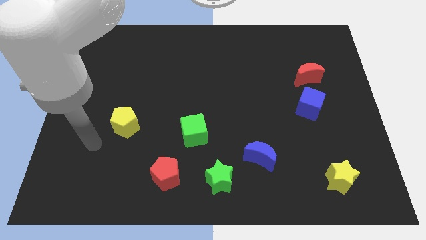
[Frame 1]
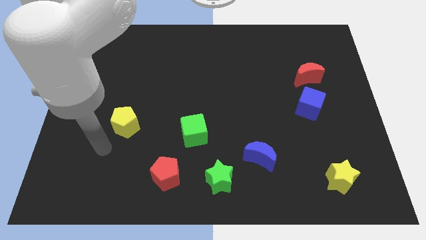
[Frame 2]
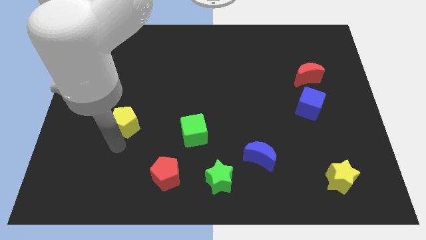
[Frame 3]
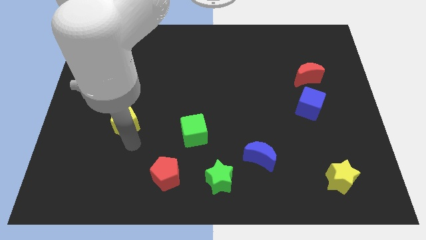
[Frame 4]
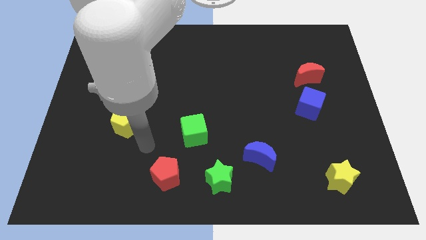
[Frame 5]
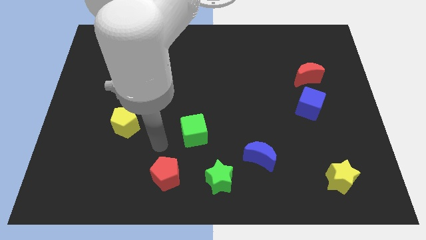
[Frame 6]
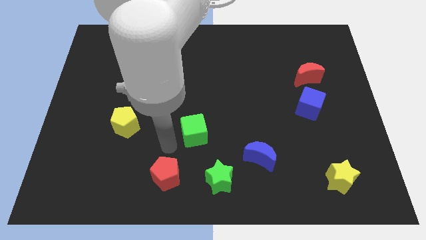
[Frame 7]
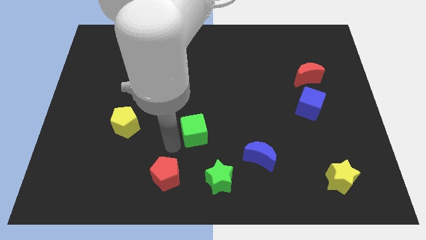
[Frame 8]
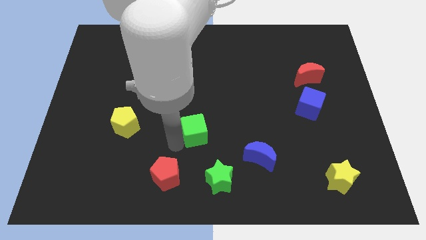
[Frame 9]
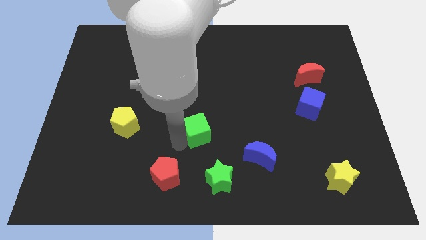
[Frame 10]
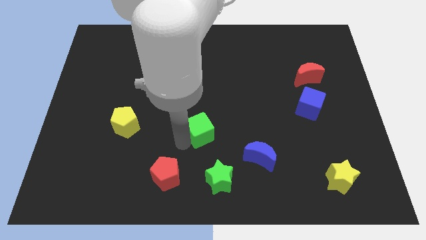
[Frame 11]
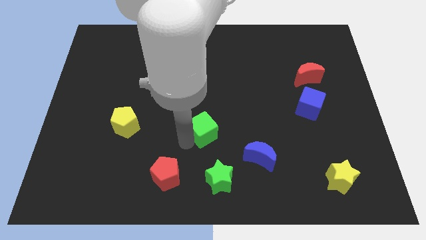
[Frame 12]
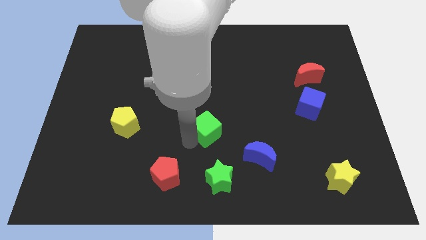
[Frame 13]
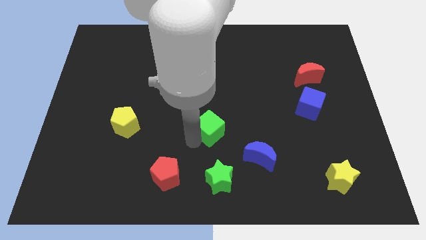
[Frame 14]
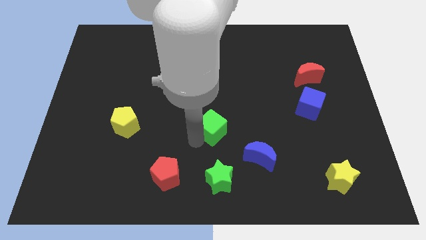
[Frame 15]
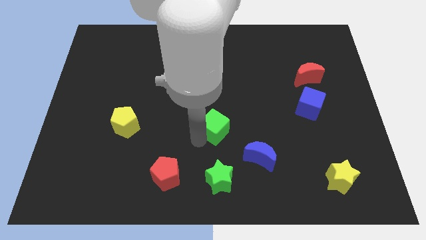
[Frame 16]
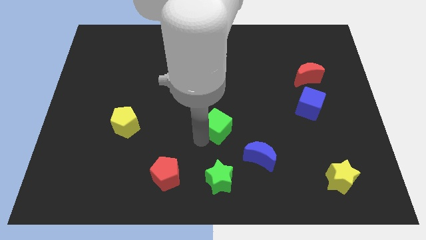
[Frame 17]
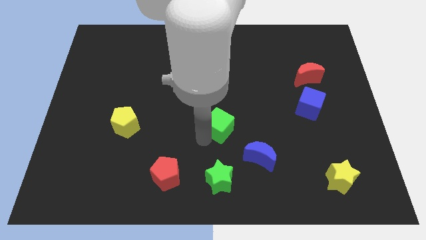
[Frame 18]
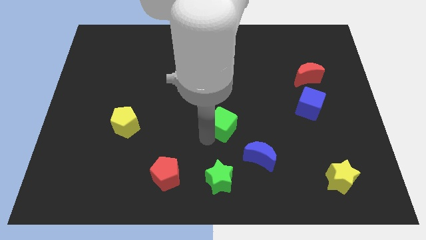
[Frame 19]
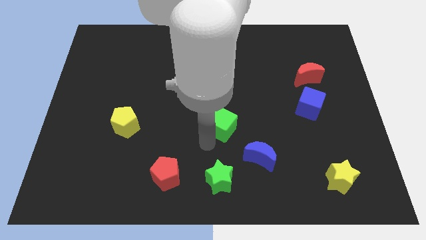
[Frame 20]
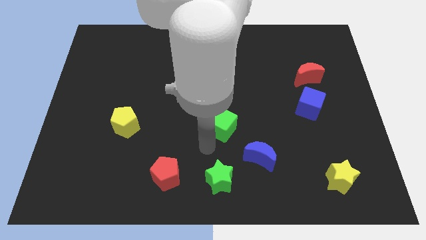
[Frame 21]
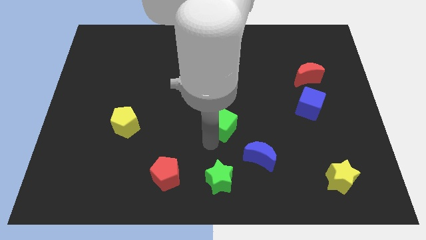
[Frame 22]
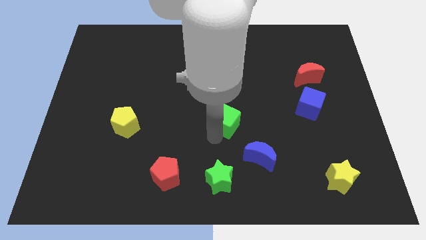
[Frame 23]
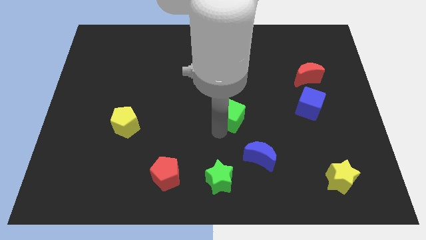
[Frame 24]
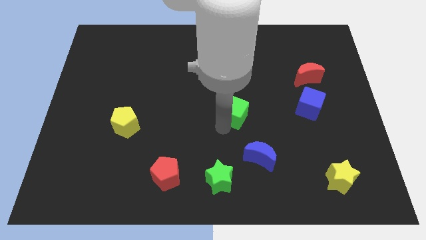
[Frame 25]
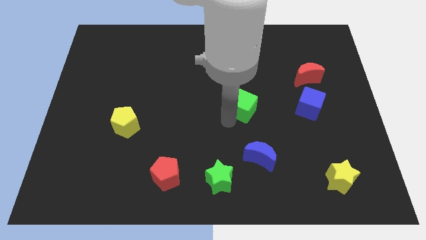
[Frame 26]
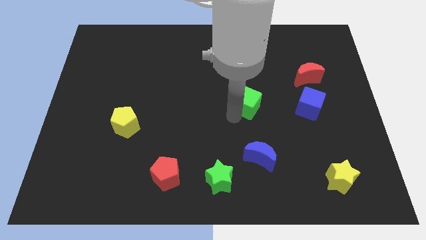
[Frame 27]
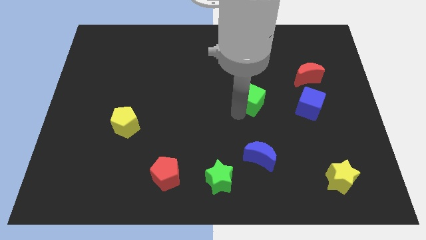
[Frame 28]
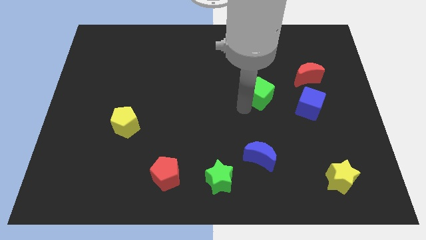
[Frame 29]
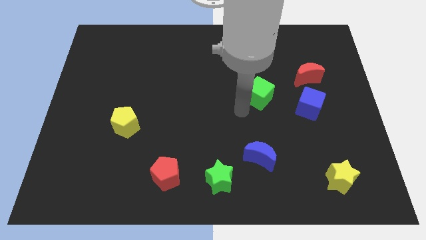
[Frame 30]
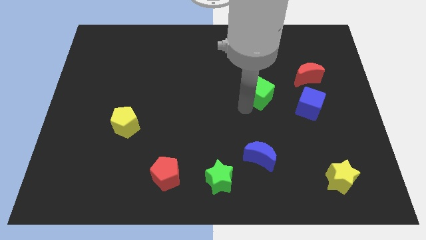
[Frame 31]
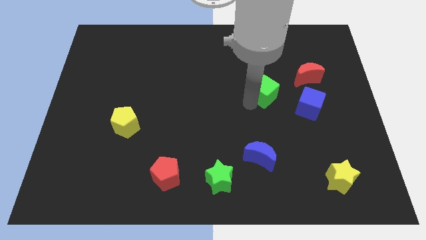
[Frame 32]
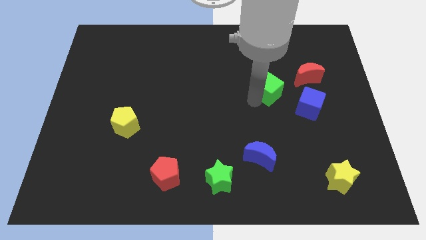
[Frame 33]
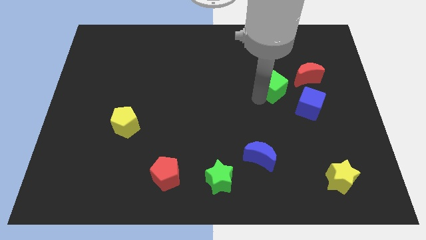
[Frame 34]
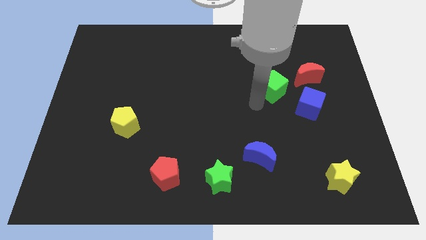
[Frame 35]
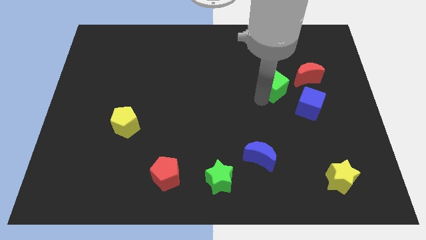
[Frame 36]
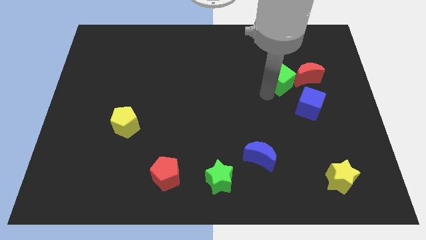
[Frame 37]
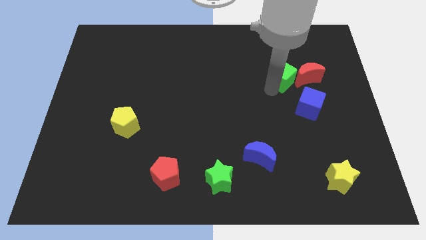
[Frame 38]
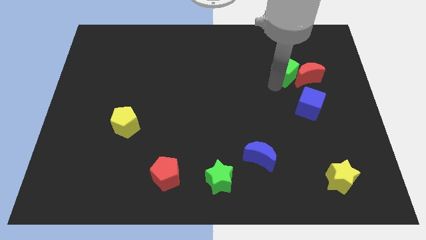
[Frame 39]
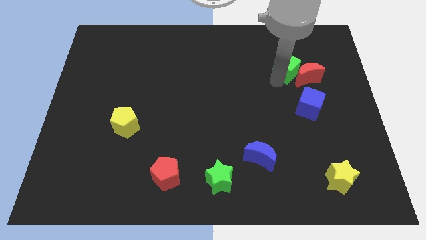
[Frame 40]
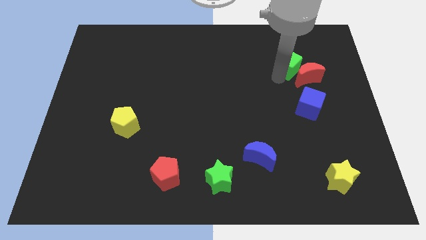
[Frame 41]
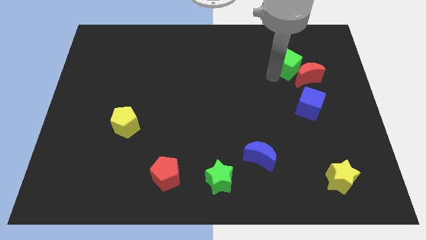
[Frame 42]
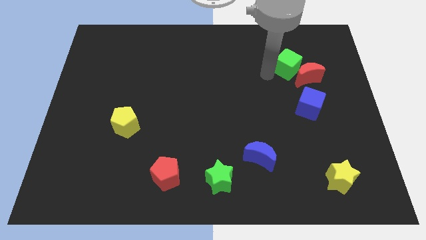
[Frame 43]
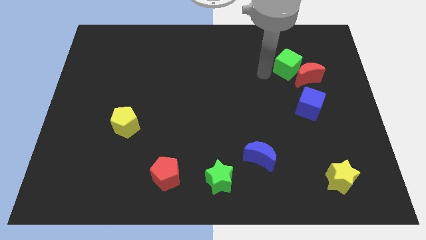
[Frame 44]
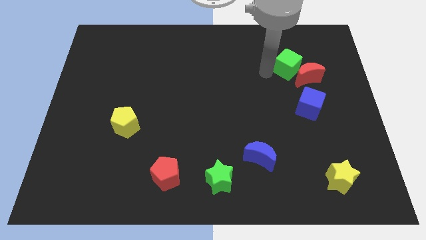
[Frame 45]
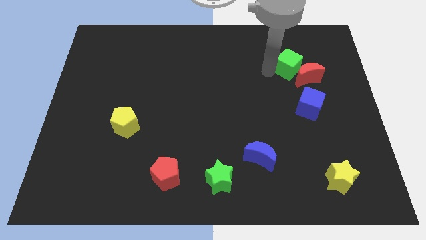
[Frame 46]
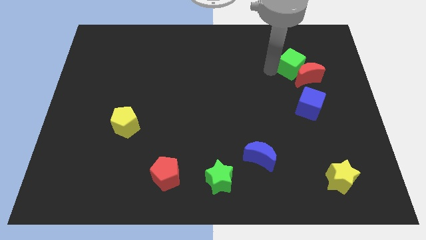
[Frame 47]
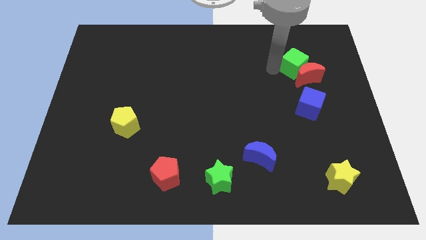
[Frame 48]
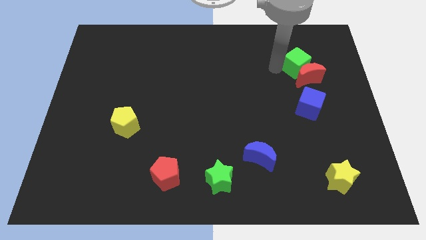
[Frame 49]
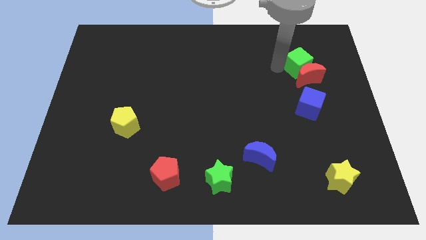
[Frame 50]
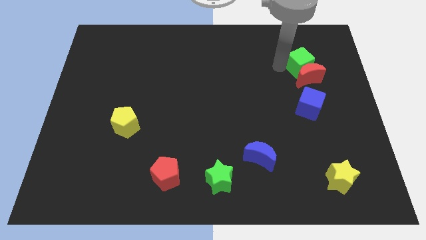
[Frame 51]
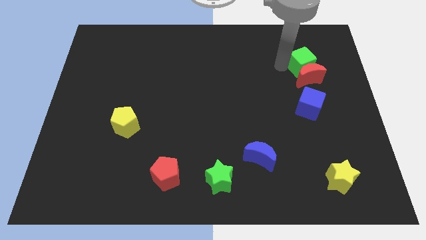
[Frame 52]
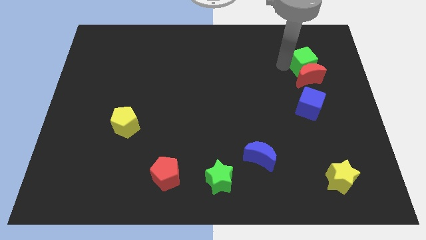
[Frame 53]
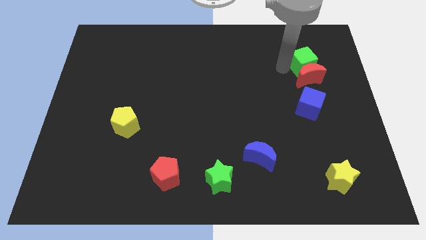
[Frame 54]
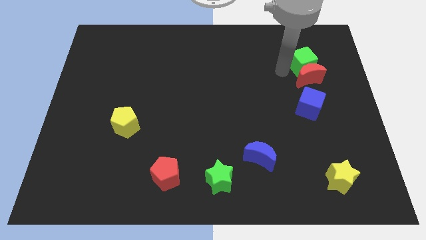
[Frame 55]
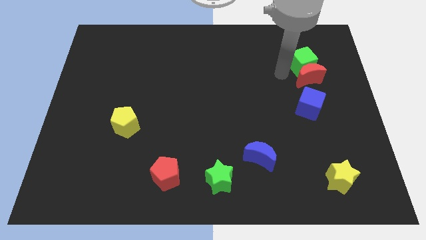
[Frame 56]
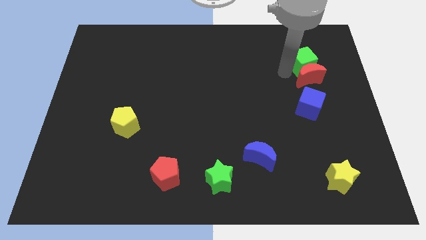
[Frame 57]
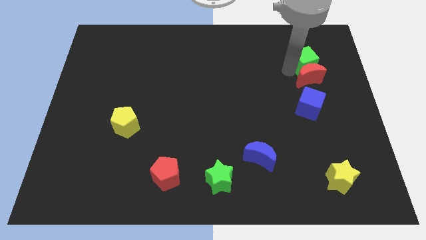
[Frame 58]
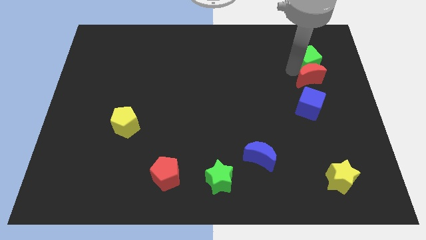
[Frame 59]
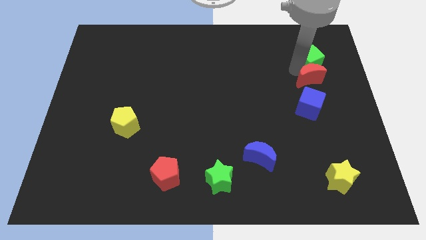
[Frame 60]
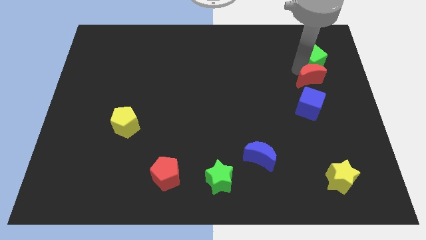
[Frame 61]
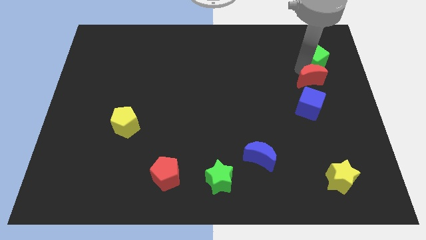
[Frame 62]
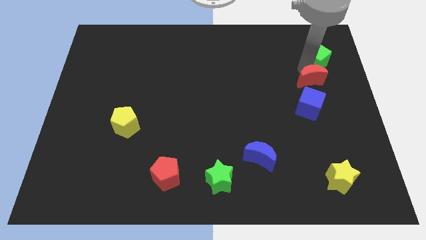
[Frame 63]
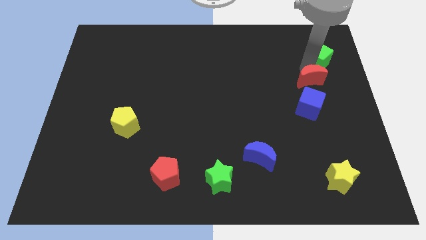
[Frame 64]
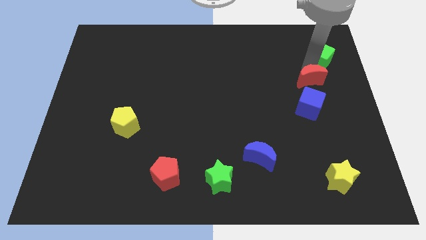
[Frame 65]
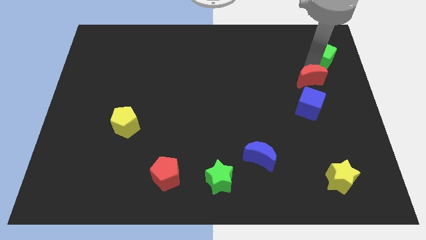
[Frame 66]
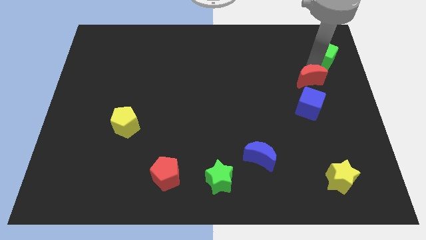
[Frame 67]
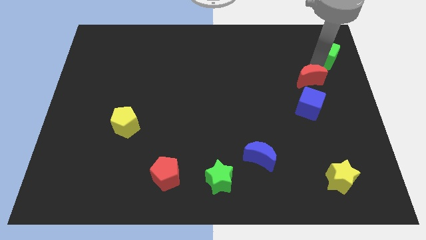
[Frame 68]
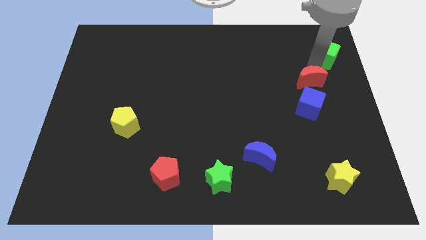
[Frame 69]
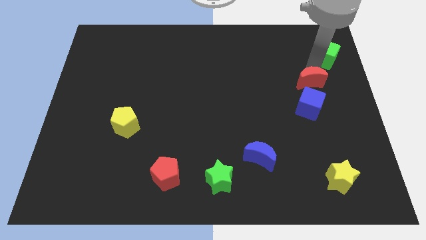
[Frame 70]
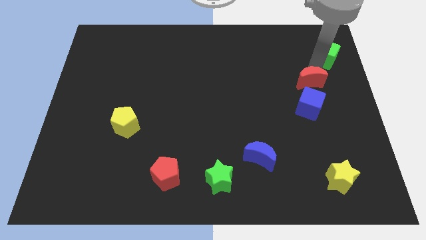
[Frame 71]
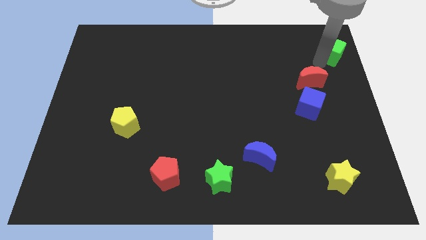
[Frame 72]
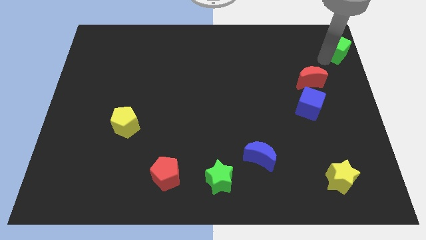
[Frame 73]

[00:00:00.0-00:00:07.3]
move the green cube to the top right of the board
